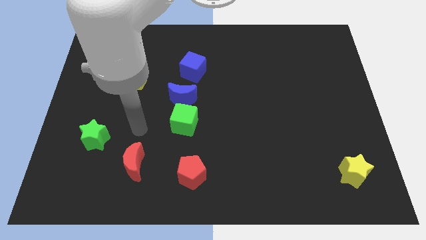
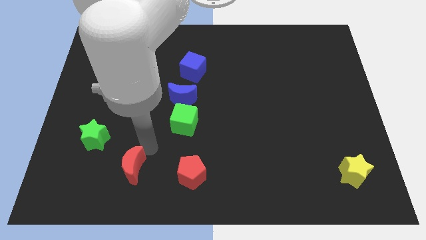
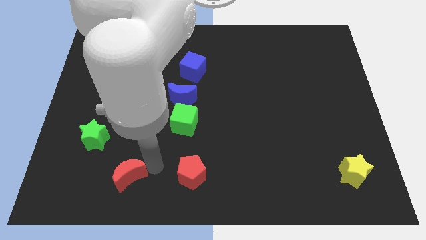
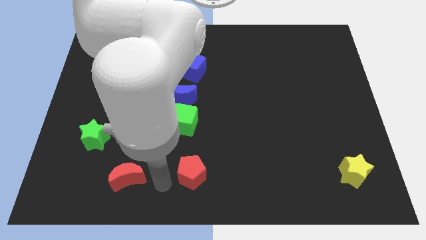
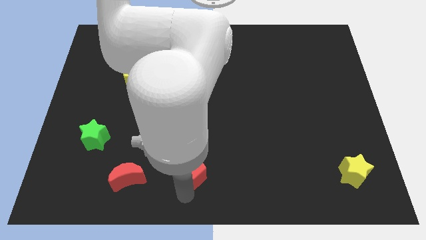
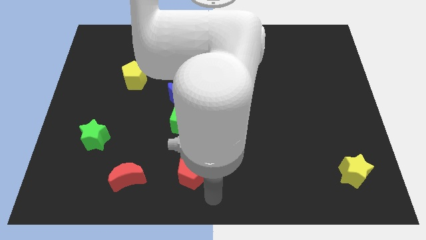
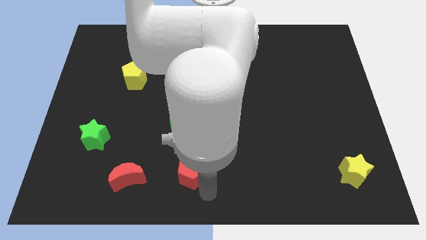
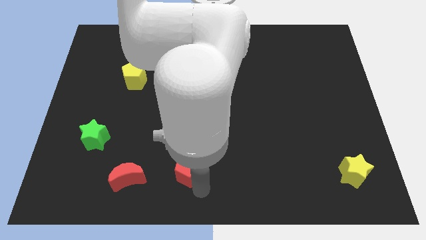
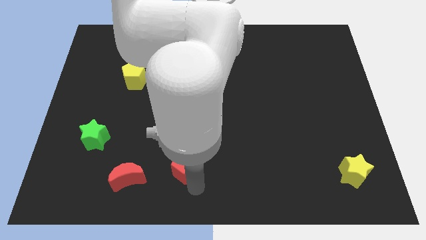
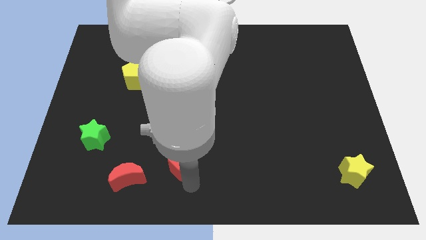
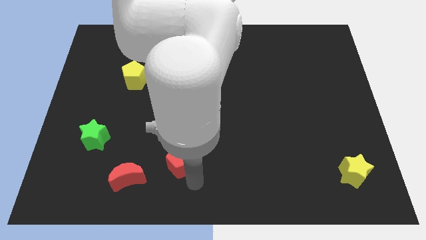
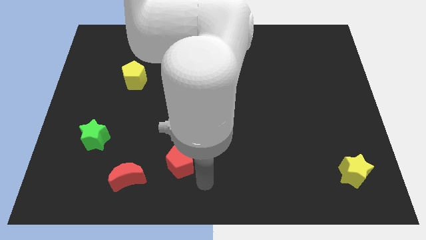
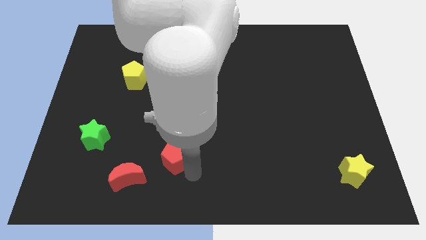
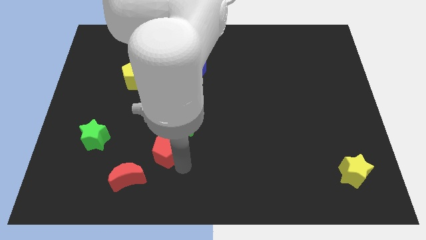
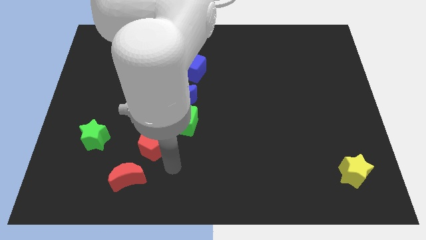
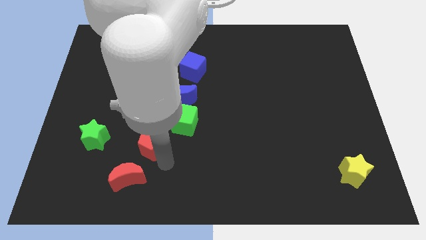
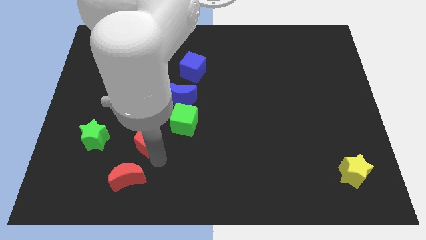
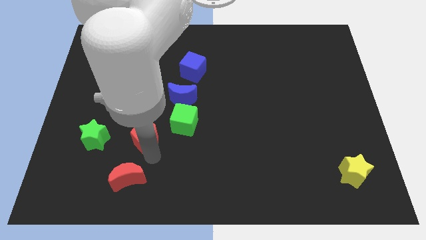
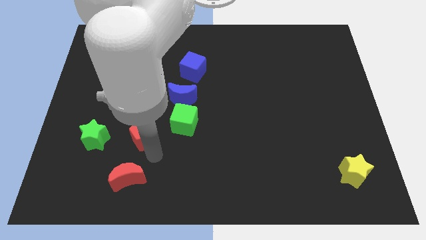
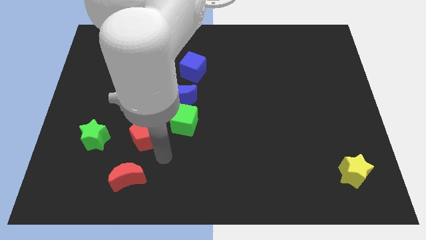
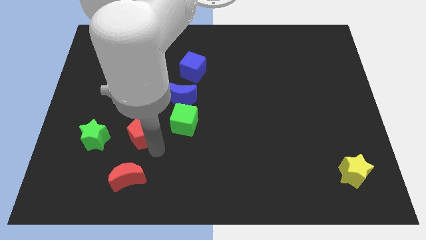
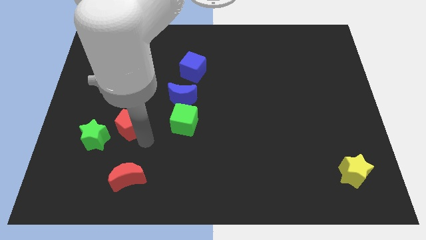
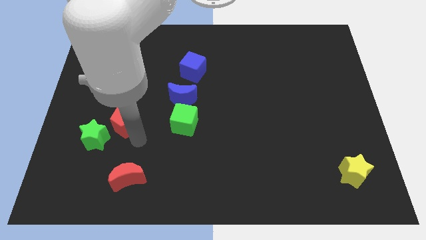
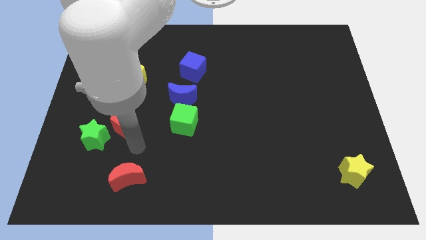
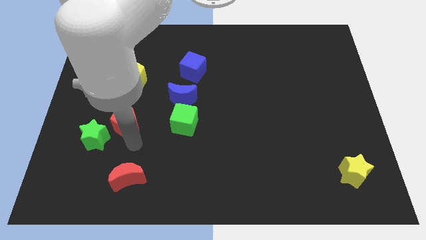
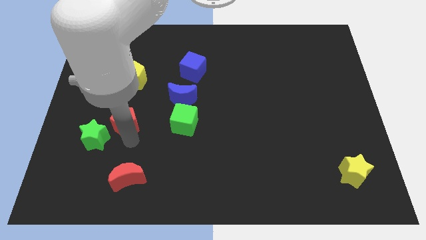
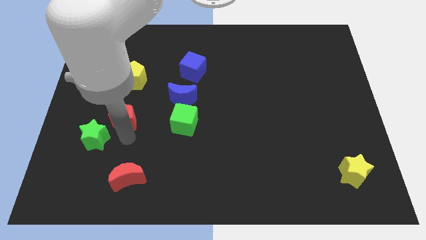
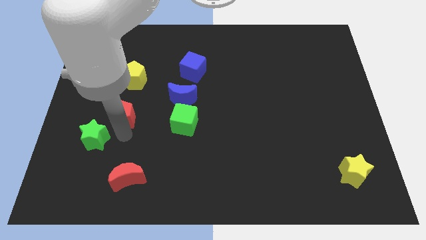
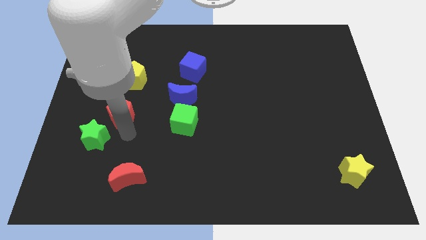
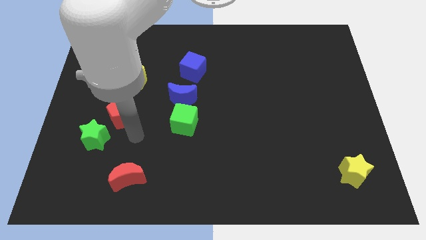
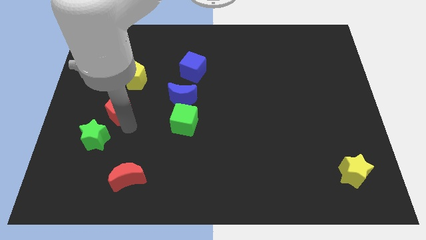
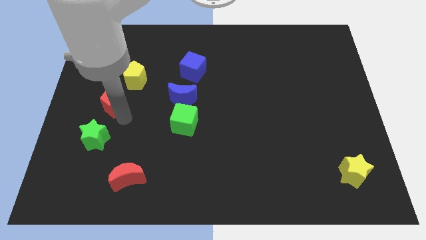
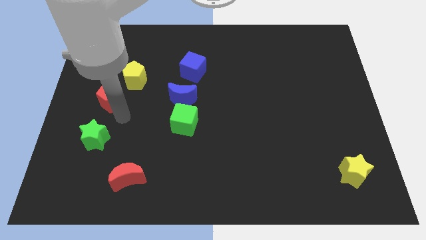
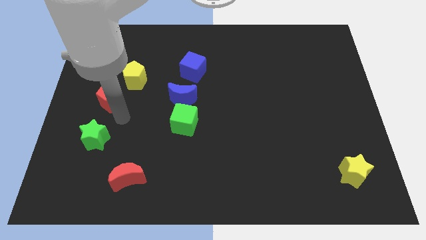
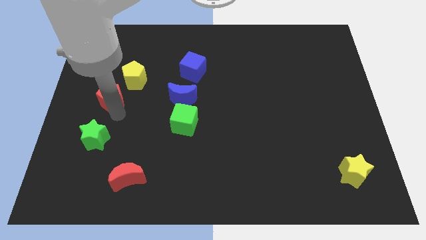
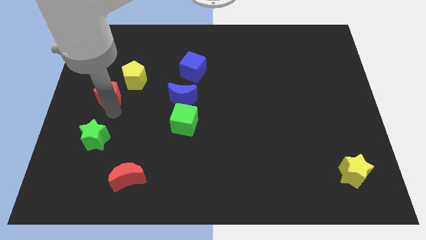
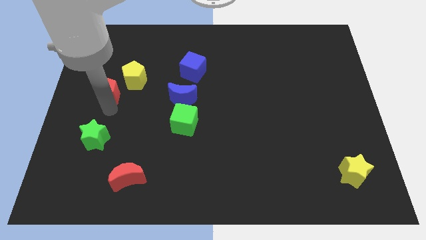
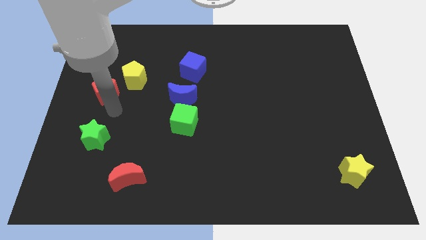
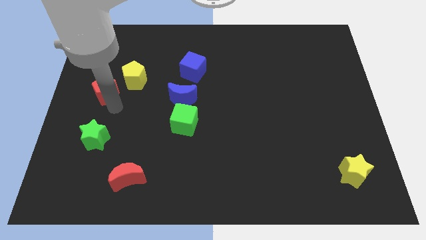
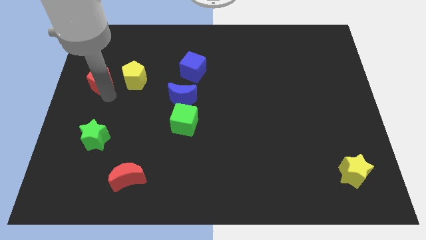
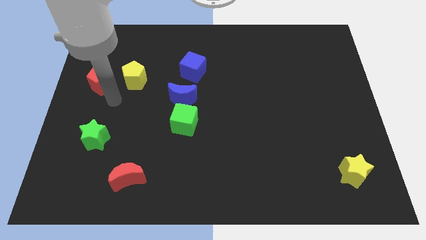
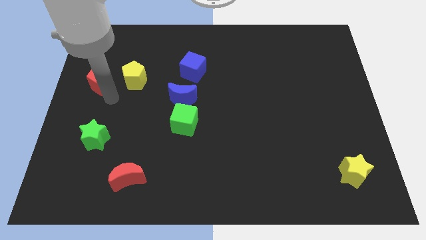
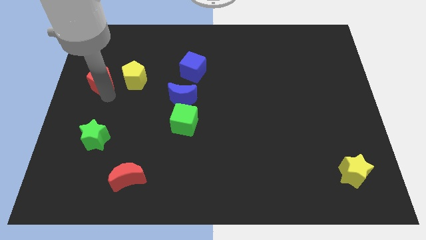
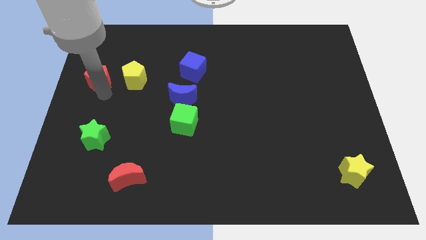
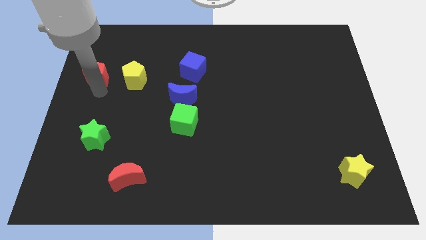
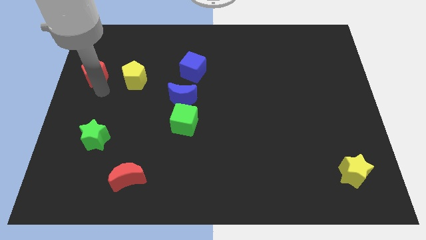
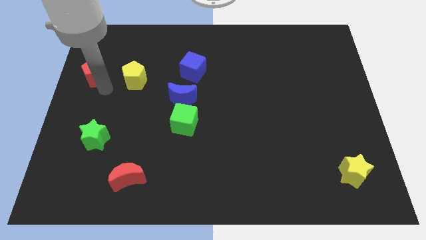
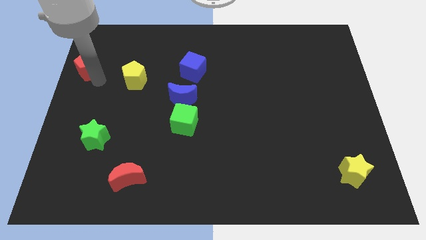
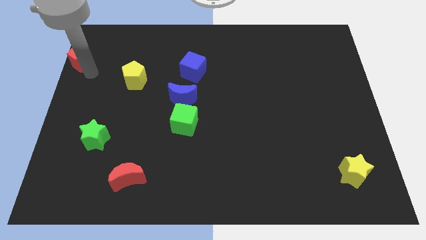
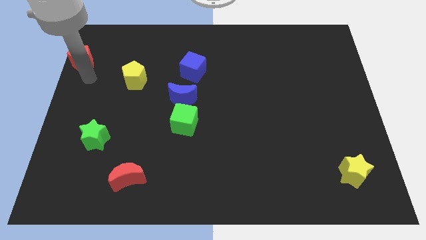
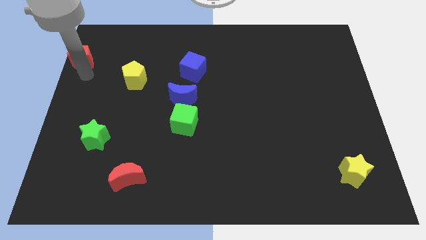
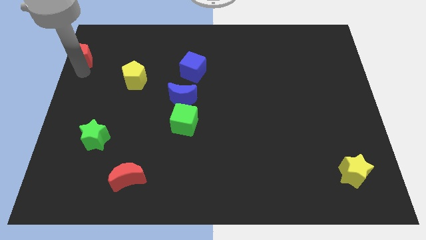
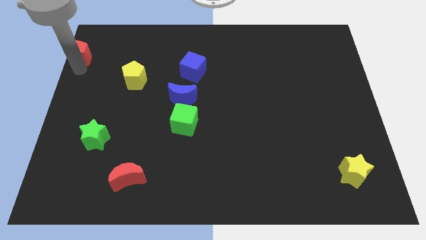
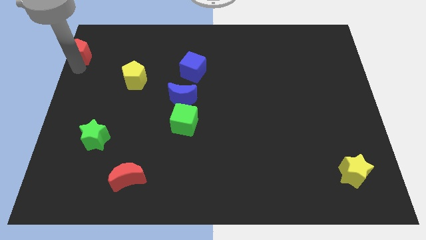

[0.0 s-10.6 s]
move the red pentagon to the top left of the board

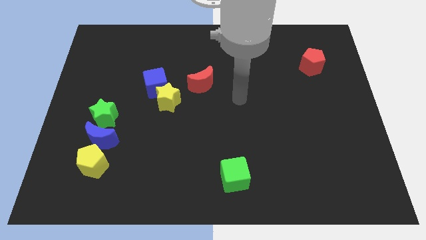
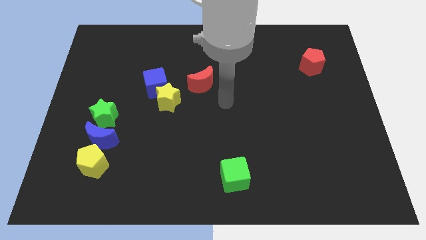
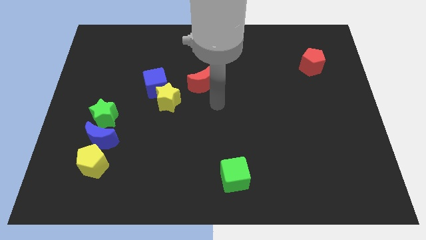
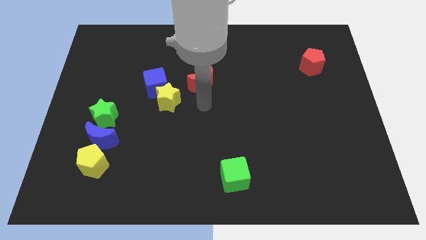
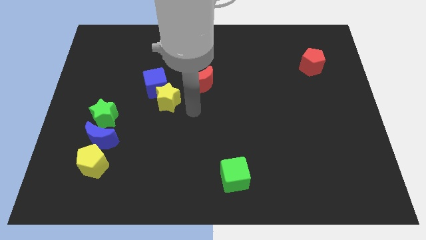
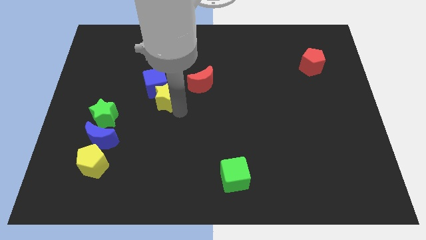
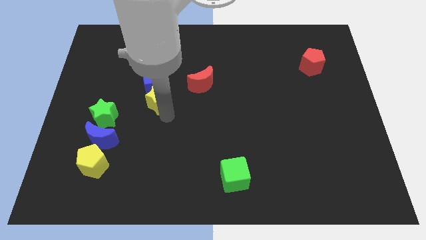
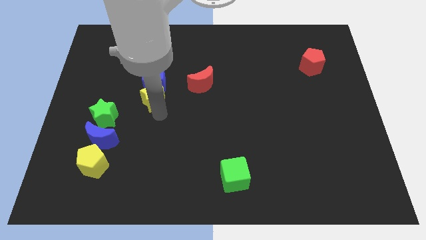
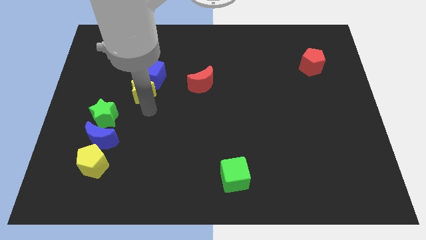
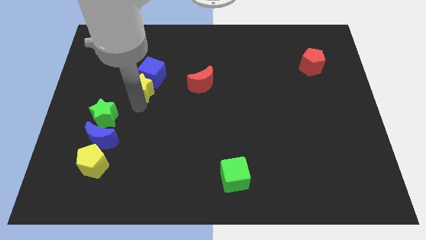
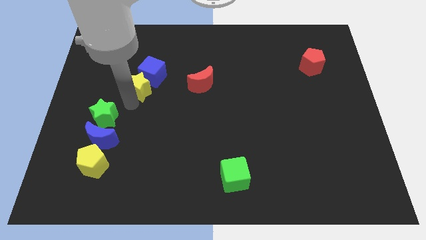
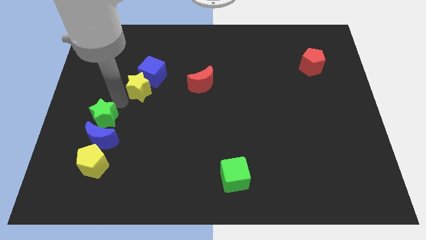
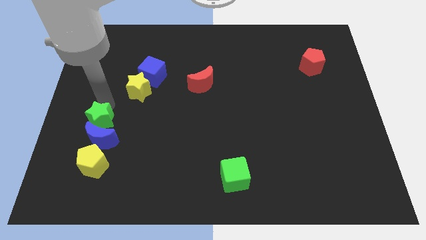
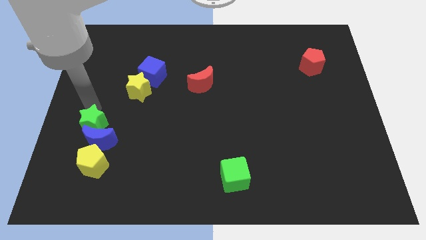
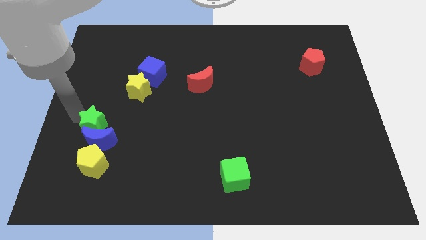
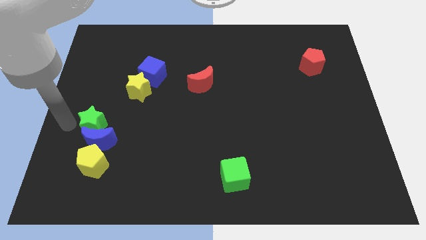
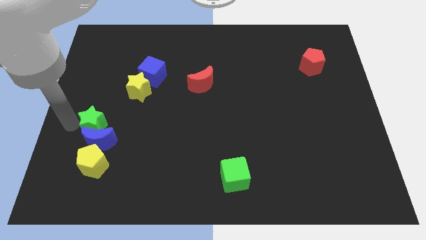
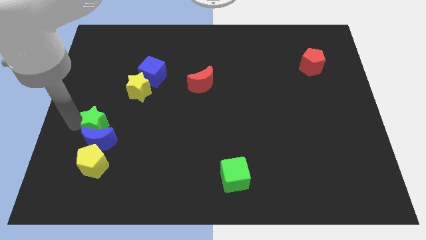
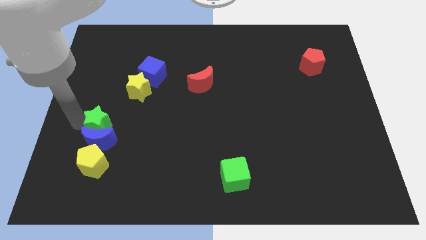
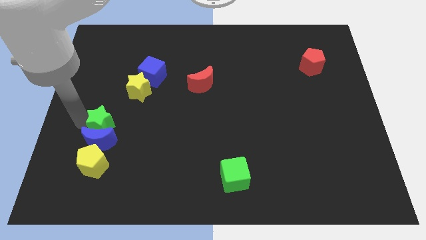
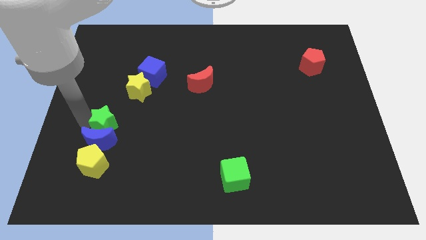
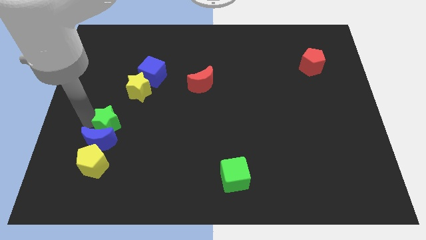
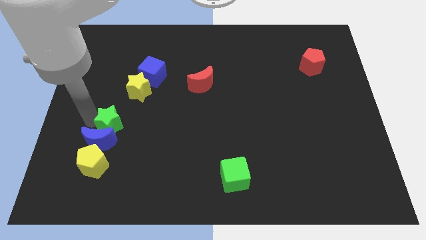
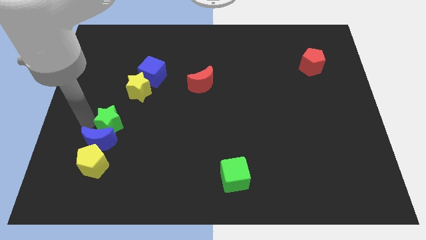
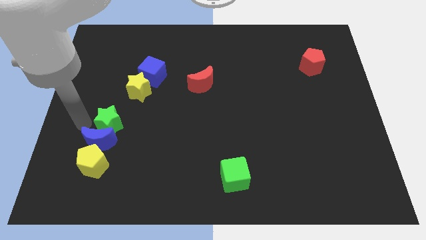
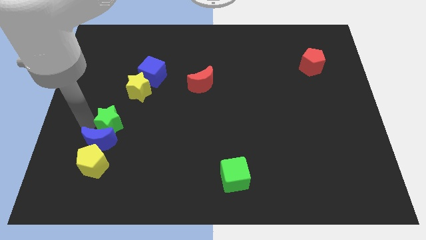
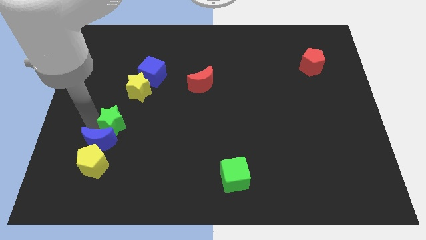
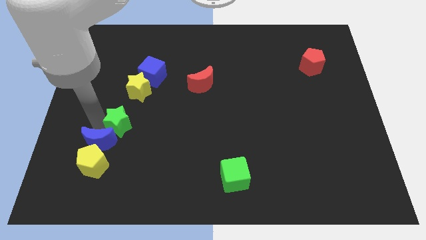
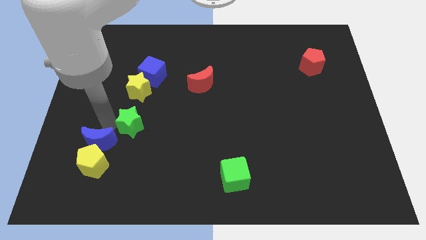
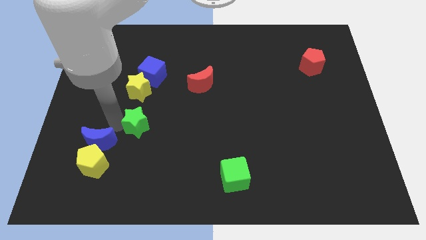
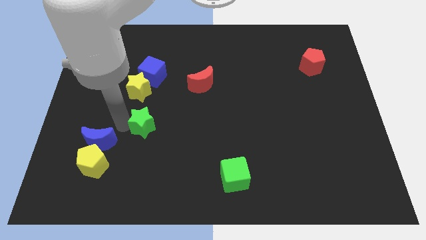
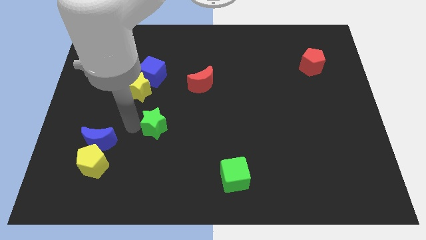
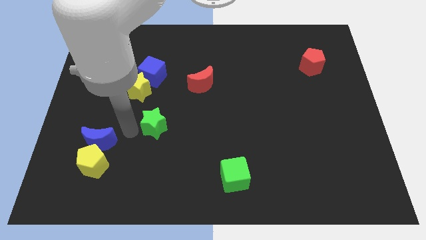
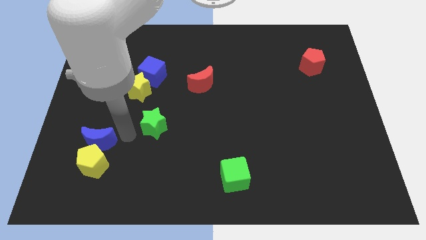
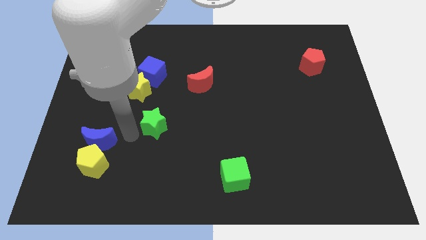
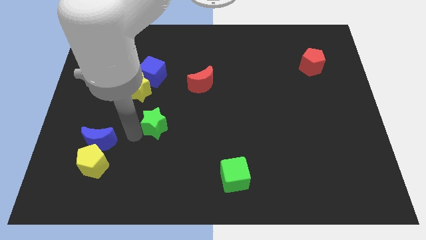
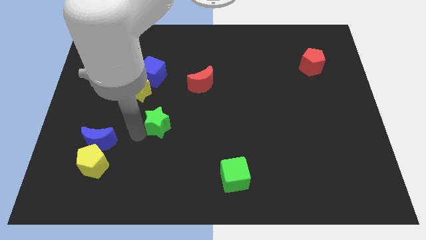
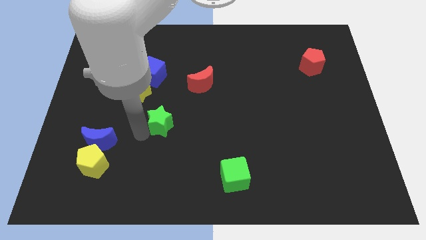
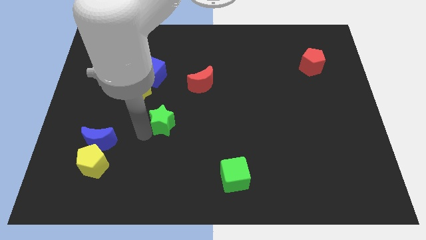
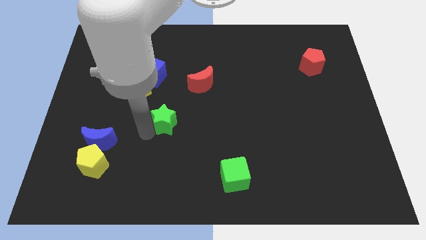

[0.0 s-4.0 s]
move the green star to the middle of the board
